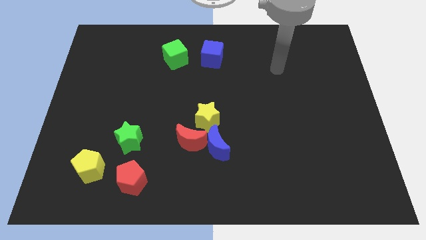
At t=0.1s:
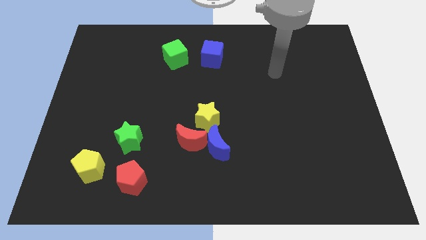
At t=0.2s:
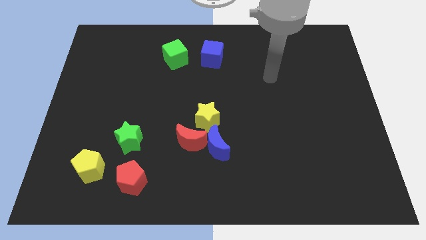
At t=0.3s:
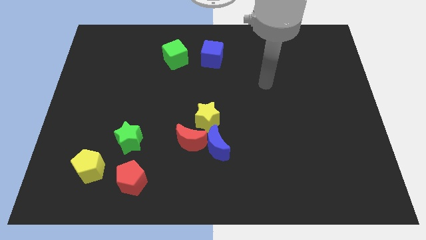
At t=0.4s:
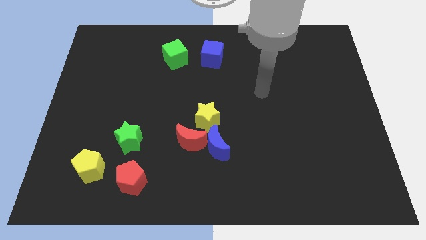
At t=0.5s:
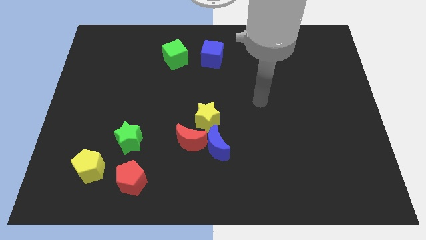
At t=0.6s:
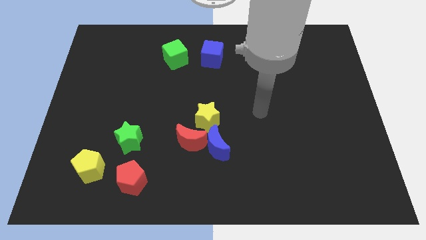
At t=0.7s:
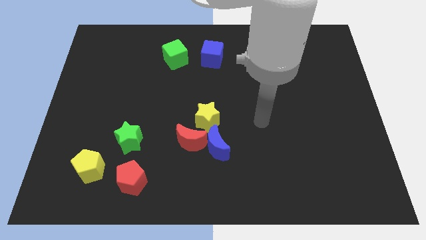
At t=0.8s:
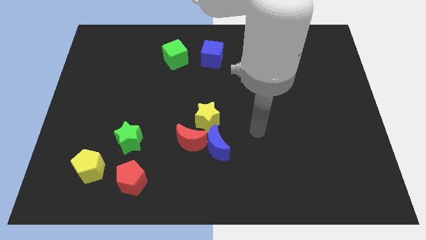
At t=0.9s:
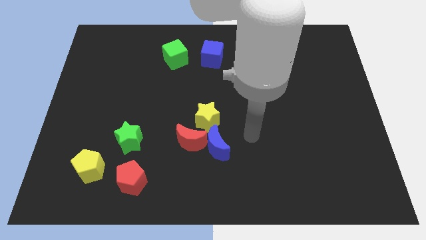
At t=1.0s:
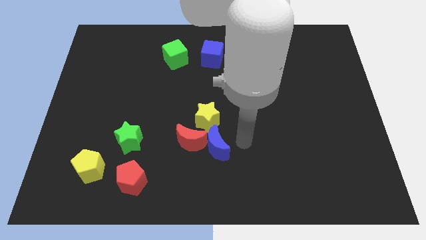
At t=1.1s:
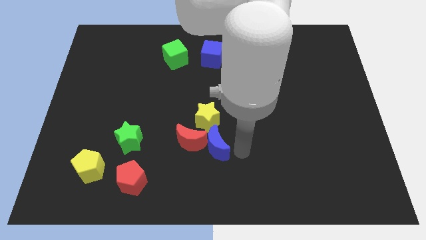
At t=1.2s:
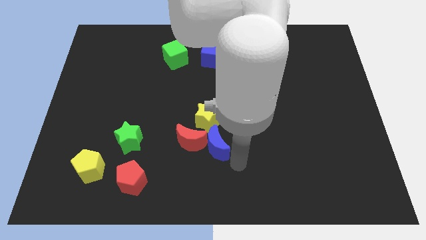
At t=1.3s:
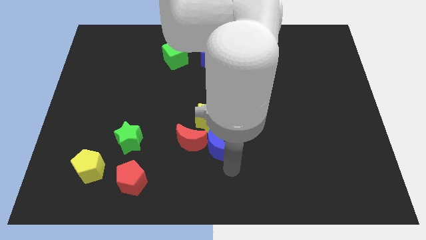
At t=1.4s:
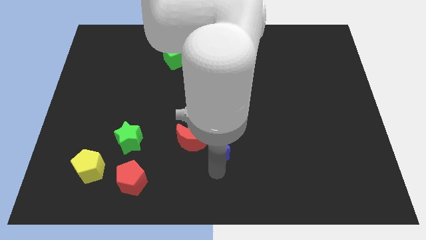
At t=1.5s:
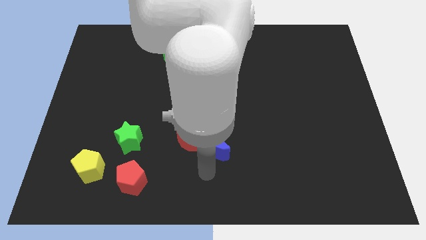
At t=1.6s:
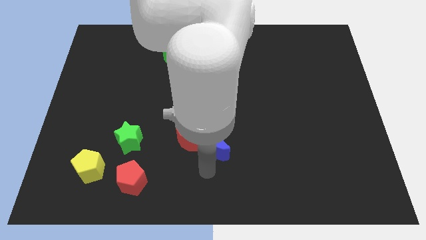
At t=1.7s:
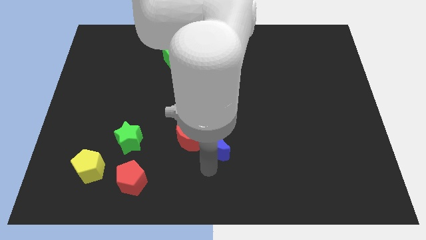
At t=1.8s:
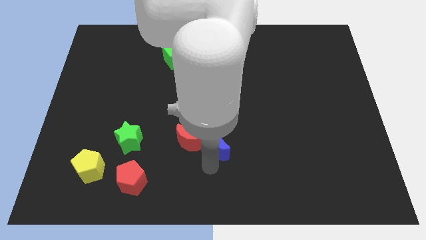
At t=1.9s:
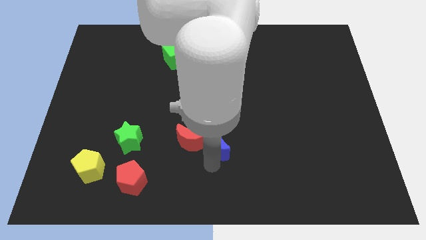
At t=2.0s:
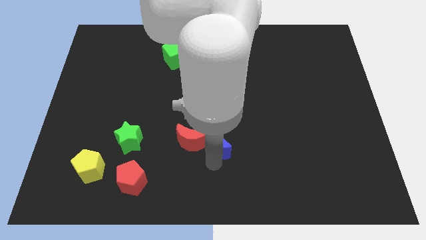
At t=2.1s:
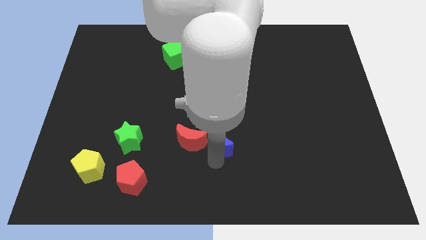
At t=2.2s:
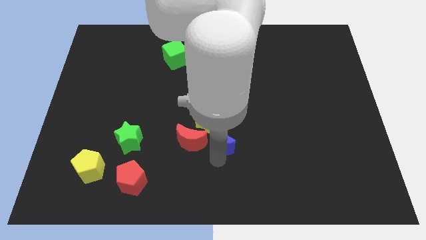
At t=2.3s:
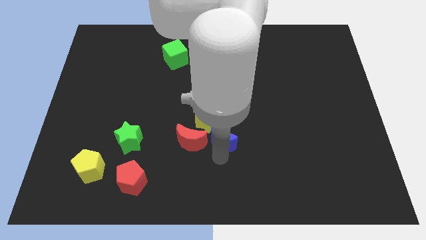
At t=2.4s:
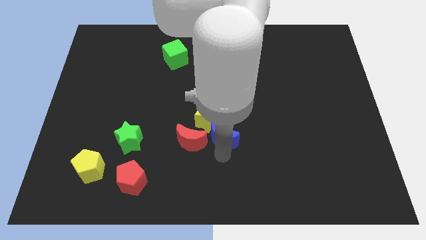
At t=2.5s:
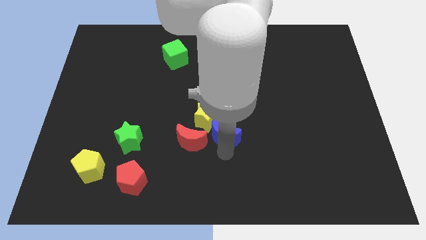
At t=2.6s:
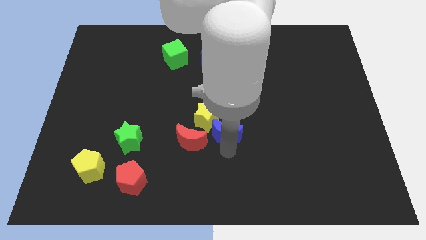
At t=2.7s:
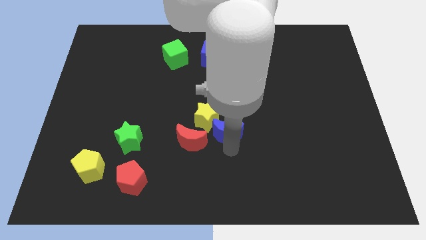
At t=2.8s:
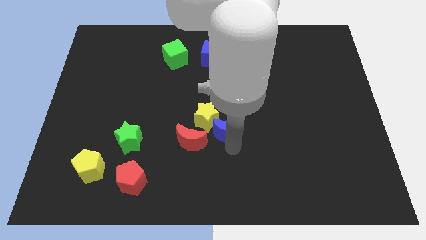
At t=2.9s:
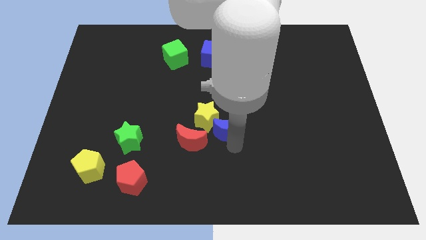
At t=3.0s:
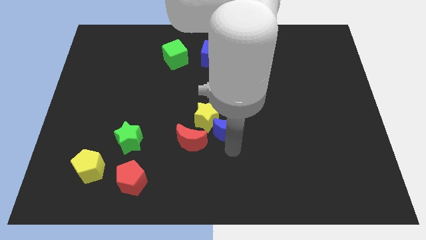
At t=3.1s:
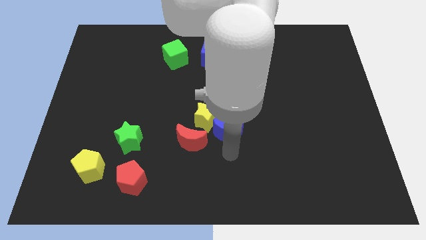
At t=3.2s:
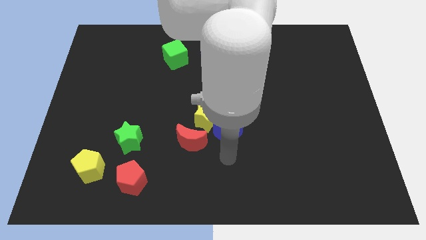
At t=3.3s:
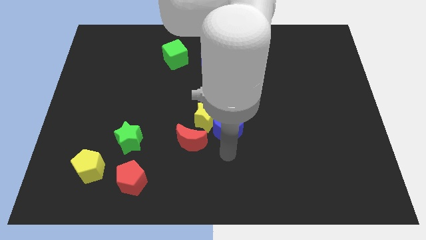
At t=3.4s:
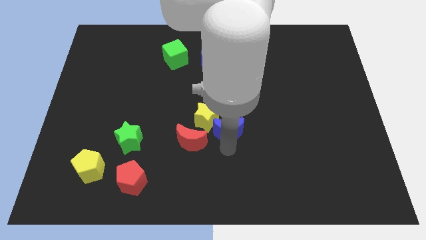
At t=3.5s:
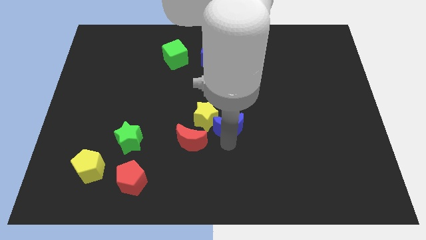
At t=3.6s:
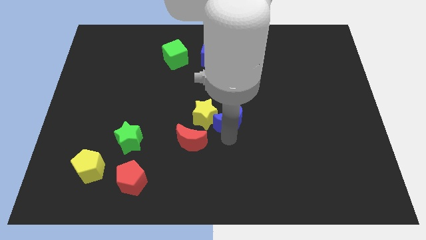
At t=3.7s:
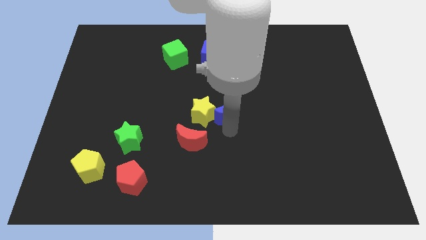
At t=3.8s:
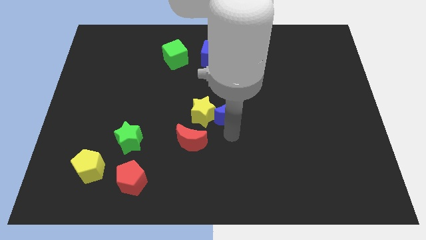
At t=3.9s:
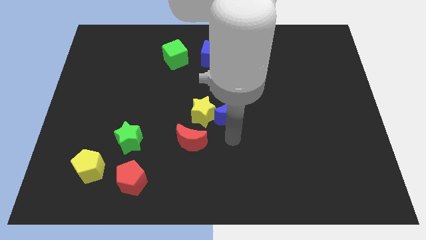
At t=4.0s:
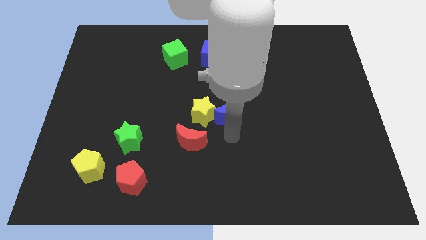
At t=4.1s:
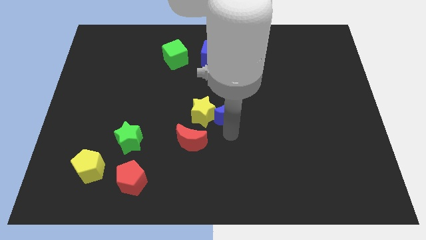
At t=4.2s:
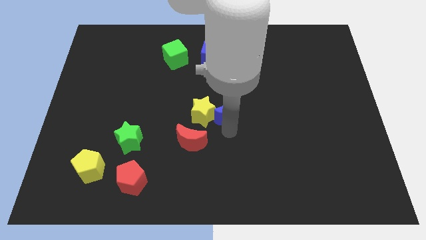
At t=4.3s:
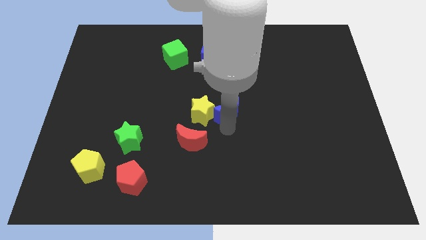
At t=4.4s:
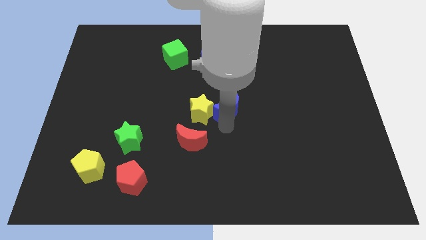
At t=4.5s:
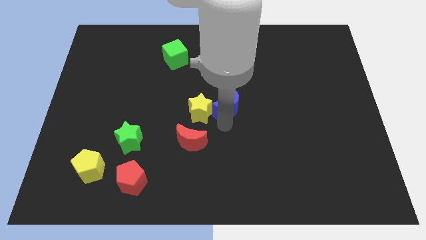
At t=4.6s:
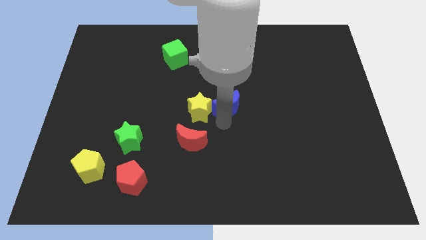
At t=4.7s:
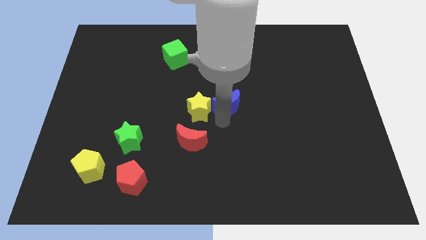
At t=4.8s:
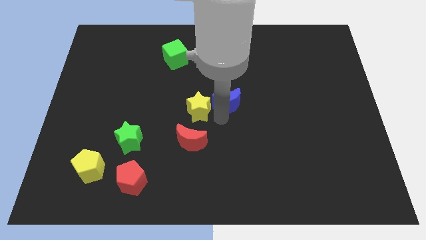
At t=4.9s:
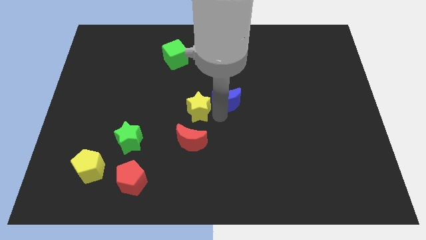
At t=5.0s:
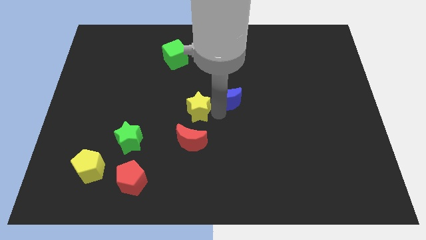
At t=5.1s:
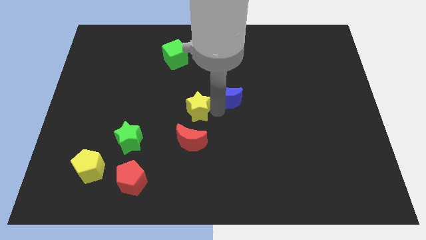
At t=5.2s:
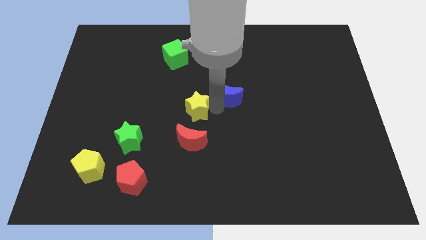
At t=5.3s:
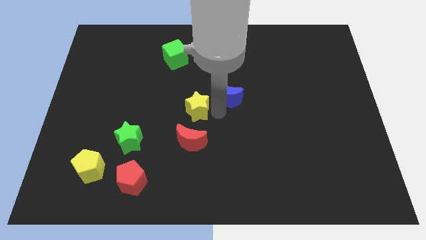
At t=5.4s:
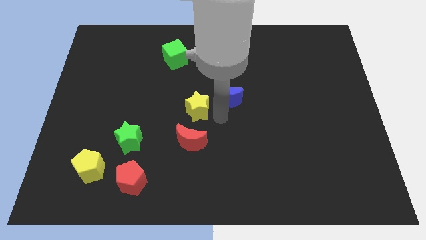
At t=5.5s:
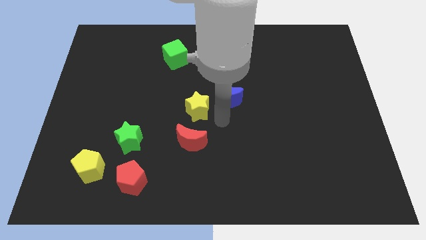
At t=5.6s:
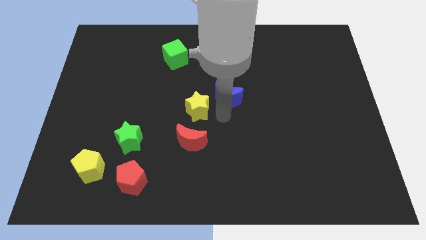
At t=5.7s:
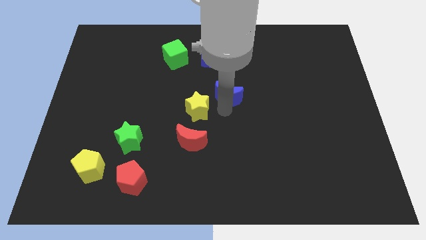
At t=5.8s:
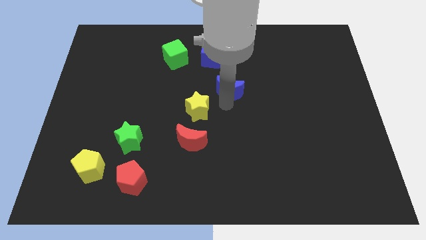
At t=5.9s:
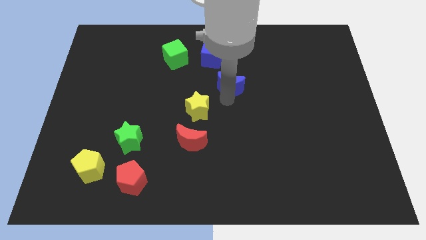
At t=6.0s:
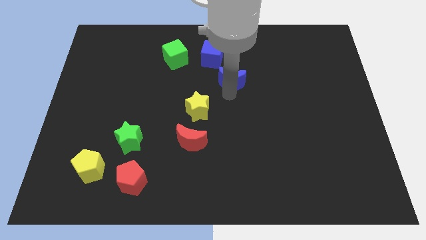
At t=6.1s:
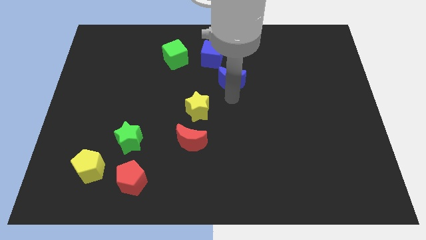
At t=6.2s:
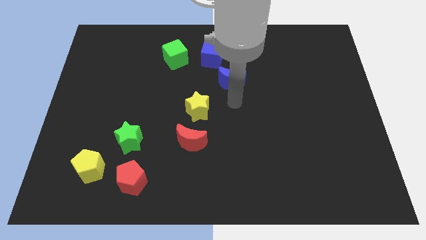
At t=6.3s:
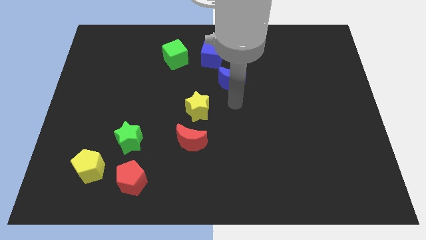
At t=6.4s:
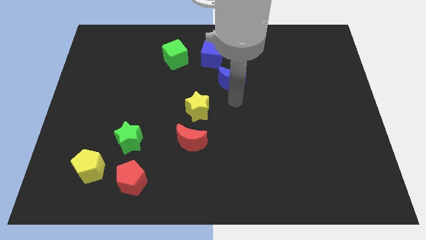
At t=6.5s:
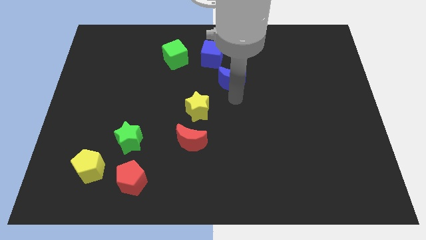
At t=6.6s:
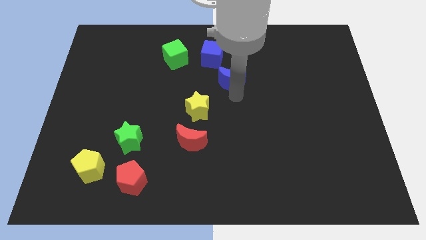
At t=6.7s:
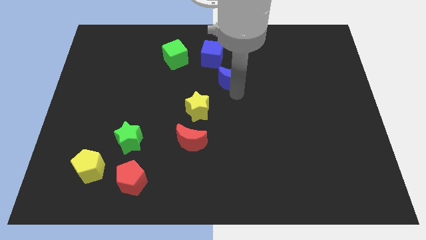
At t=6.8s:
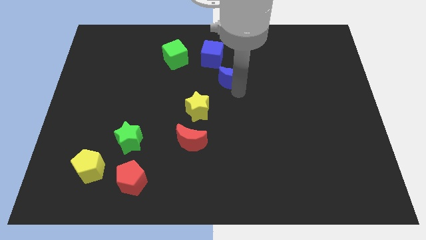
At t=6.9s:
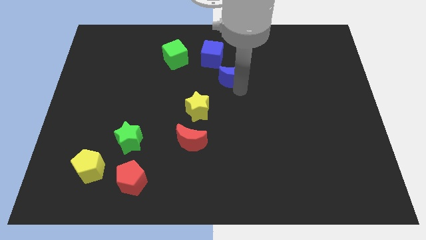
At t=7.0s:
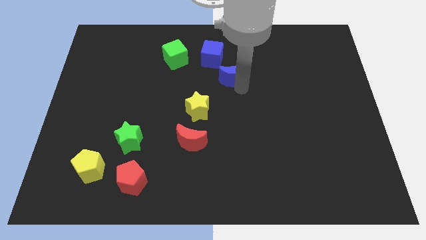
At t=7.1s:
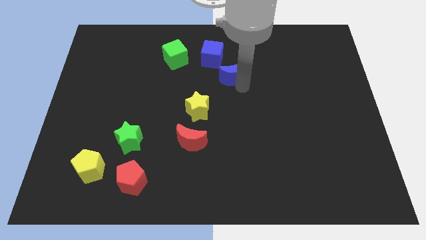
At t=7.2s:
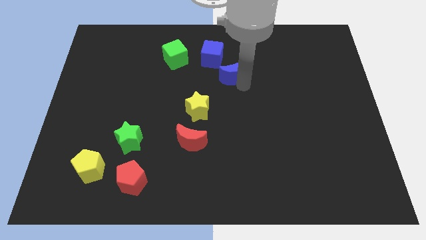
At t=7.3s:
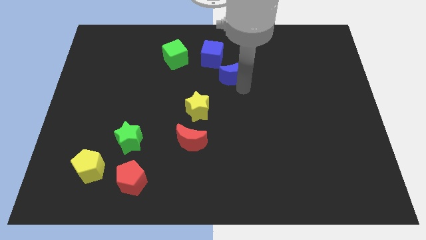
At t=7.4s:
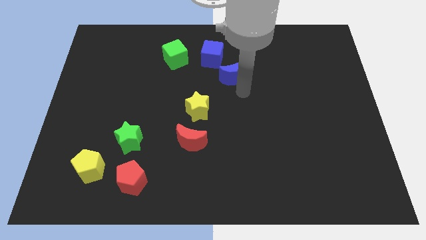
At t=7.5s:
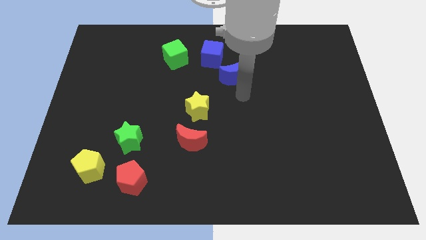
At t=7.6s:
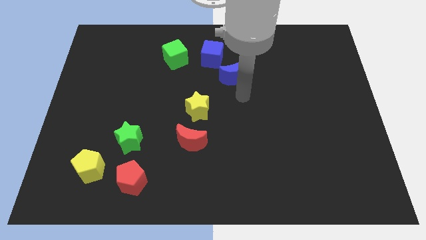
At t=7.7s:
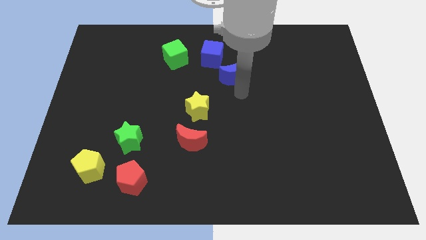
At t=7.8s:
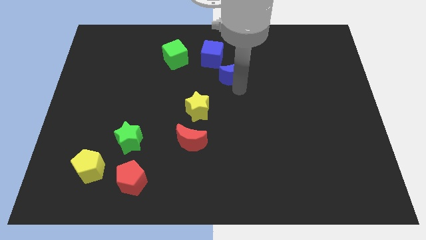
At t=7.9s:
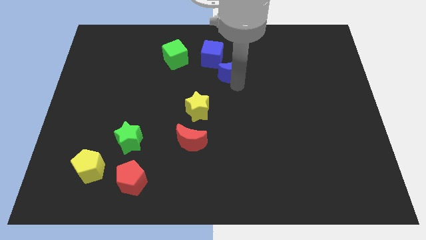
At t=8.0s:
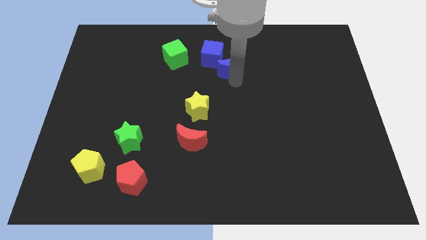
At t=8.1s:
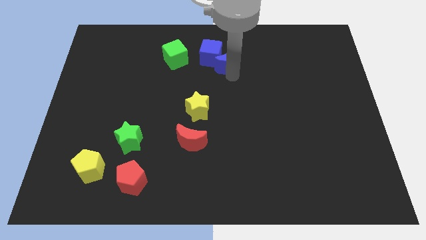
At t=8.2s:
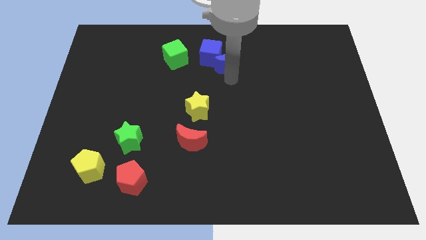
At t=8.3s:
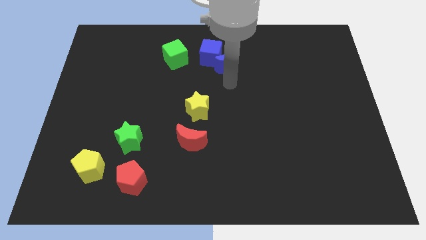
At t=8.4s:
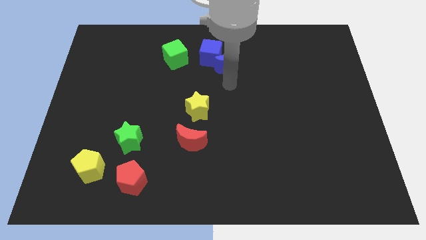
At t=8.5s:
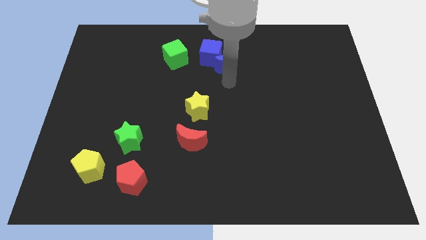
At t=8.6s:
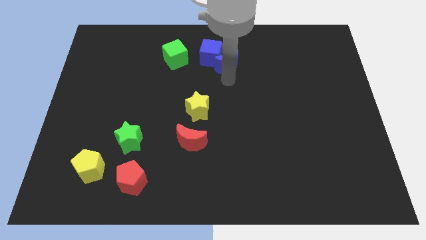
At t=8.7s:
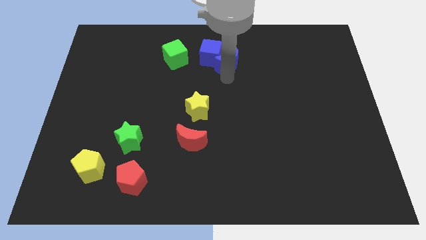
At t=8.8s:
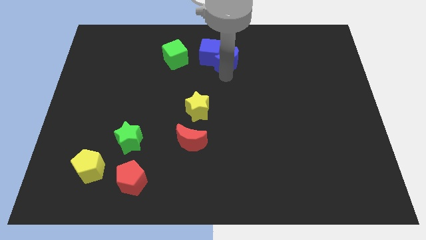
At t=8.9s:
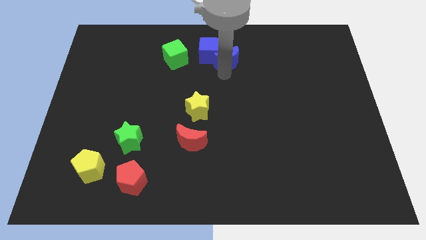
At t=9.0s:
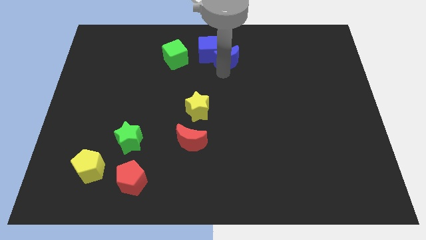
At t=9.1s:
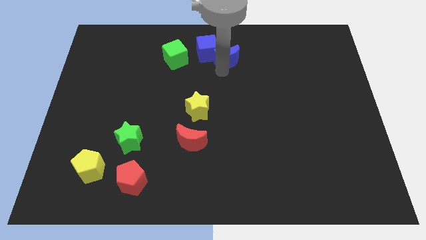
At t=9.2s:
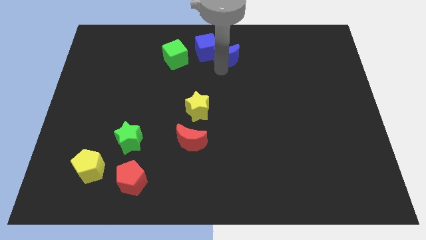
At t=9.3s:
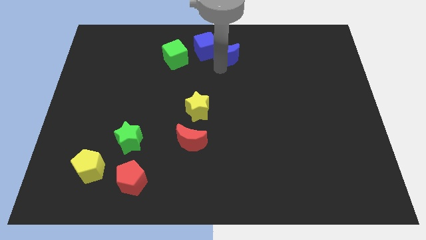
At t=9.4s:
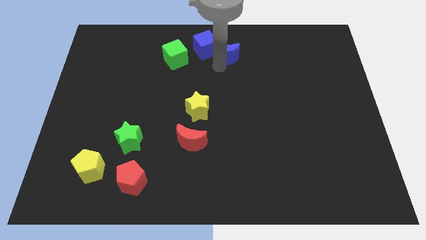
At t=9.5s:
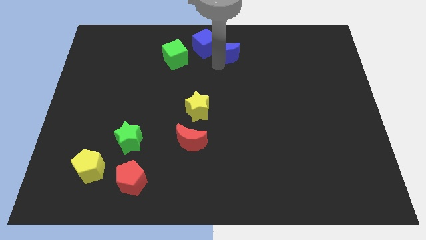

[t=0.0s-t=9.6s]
slide the blue moon to the towards your base
